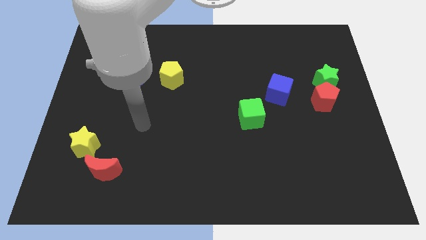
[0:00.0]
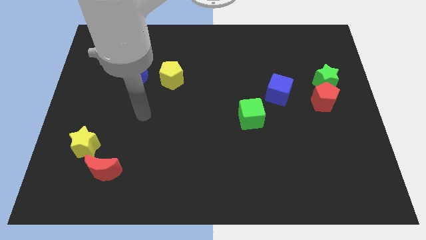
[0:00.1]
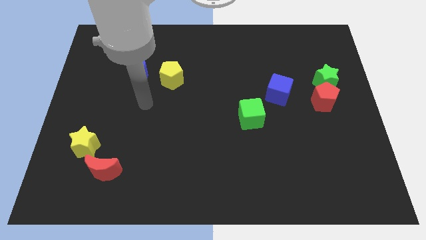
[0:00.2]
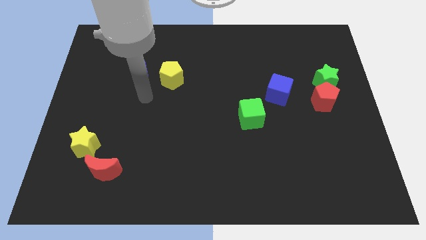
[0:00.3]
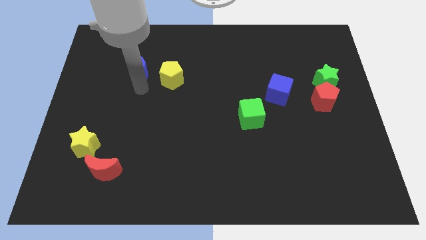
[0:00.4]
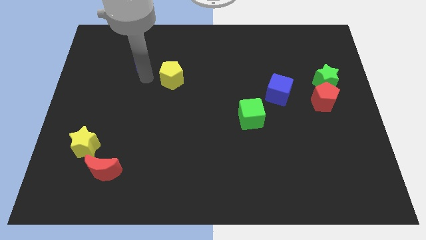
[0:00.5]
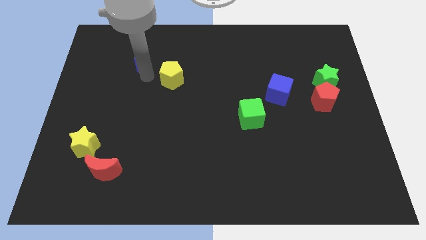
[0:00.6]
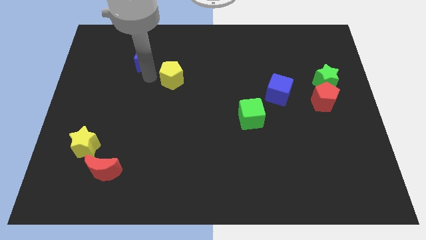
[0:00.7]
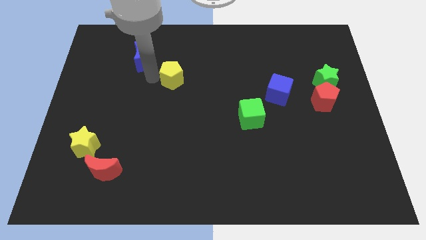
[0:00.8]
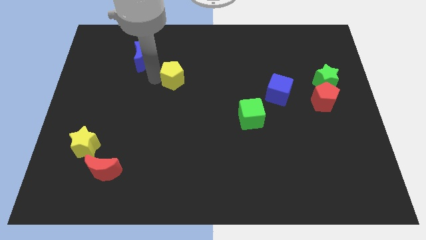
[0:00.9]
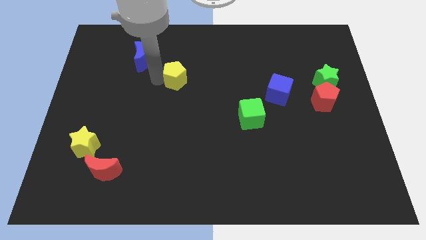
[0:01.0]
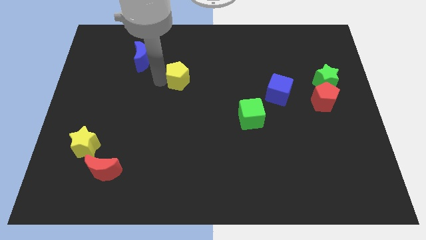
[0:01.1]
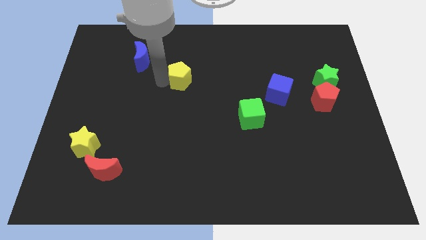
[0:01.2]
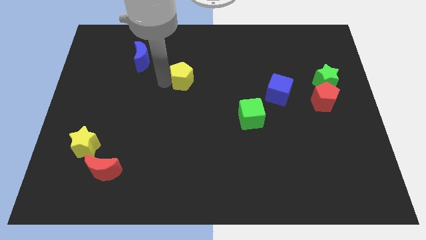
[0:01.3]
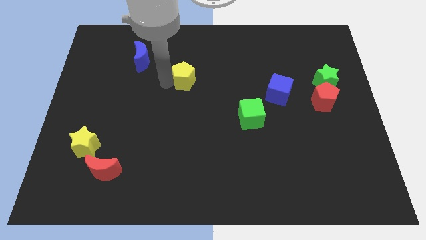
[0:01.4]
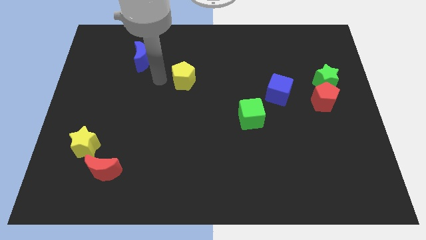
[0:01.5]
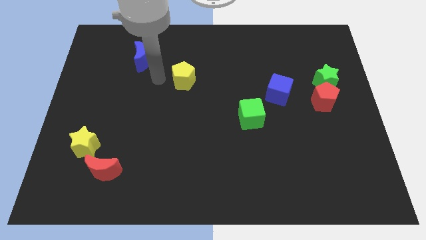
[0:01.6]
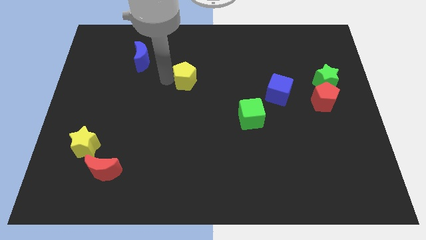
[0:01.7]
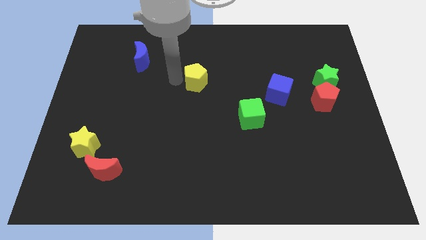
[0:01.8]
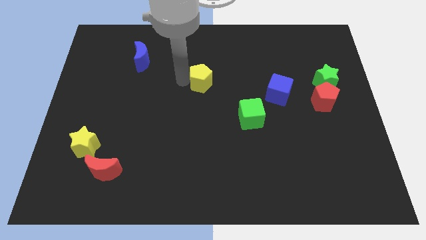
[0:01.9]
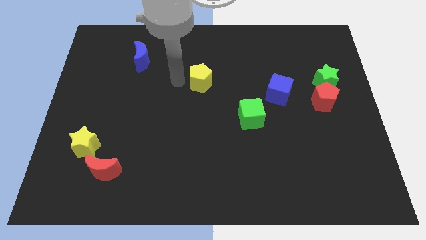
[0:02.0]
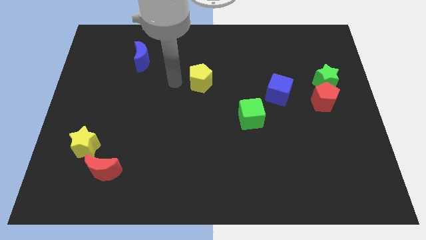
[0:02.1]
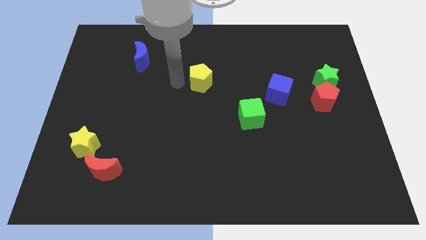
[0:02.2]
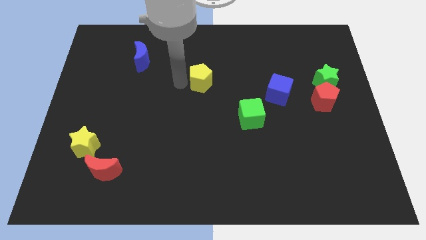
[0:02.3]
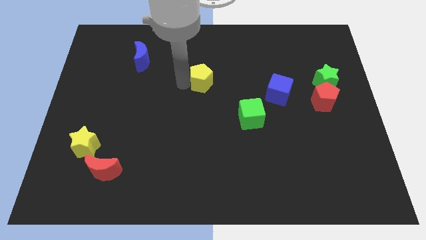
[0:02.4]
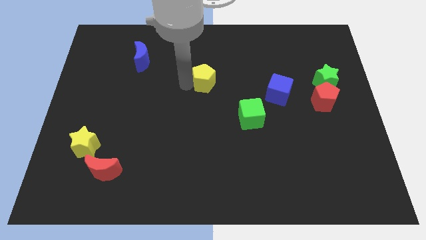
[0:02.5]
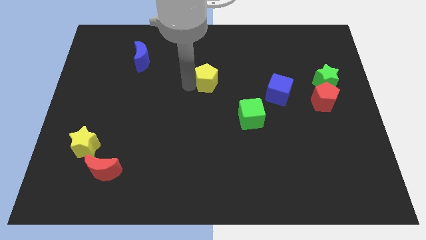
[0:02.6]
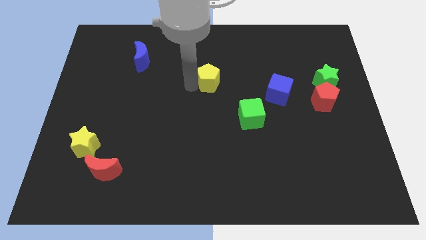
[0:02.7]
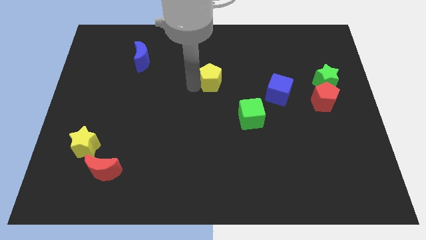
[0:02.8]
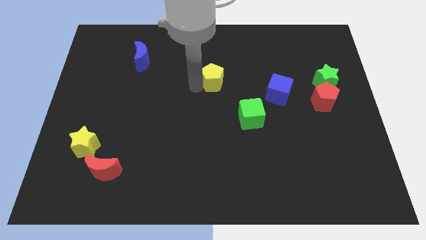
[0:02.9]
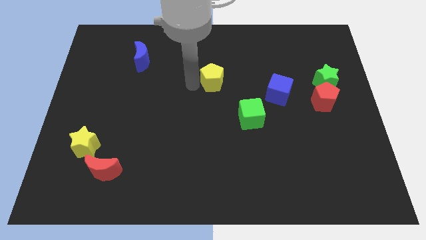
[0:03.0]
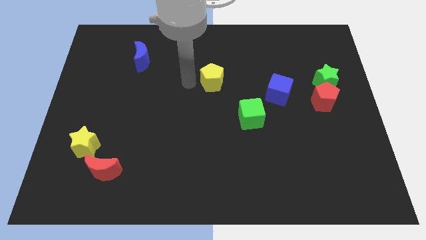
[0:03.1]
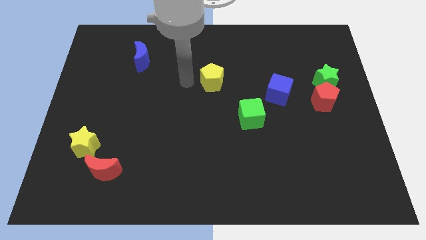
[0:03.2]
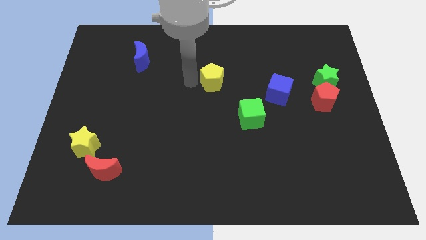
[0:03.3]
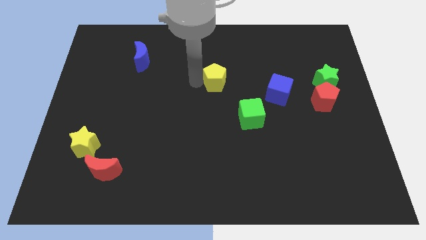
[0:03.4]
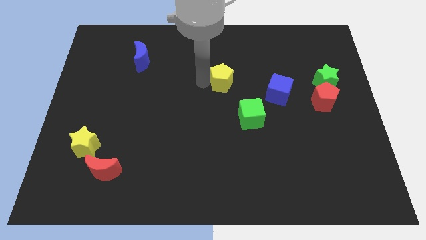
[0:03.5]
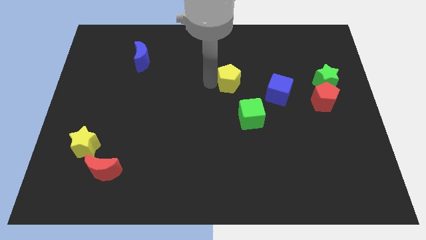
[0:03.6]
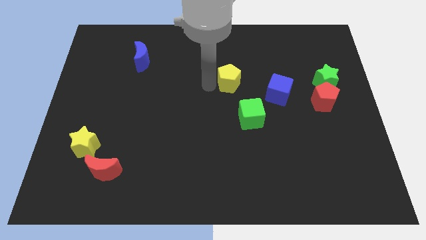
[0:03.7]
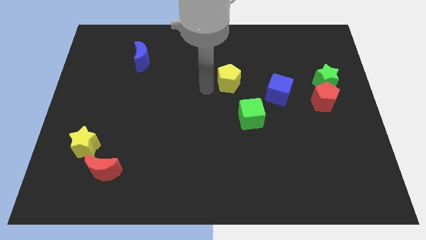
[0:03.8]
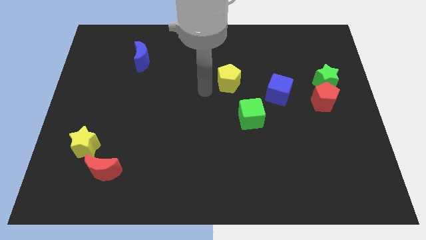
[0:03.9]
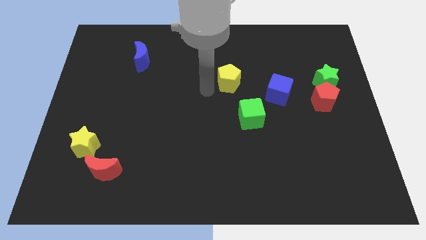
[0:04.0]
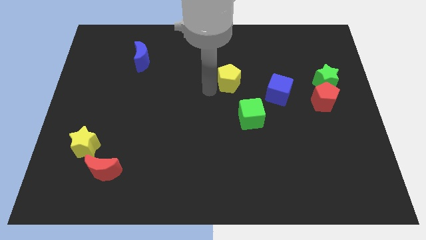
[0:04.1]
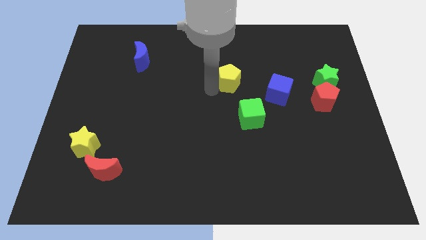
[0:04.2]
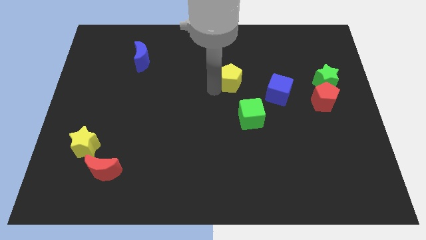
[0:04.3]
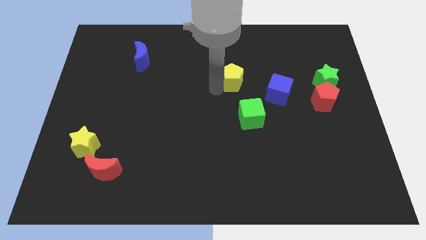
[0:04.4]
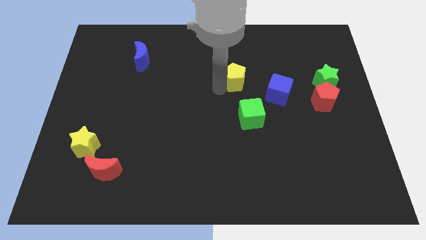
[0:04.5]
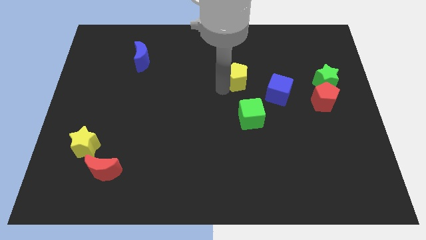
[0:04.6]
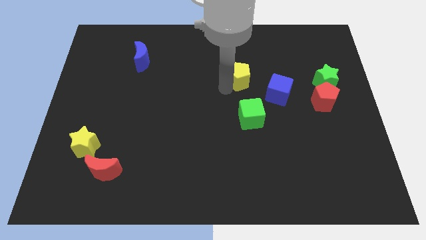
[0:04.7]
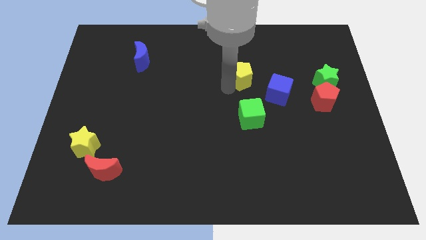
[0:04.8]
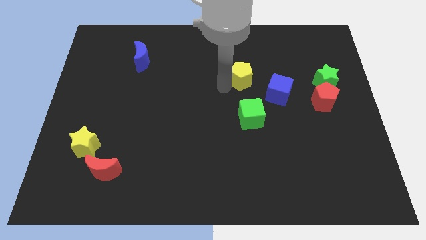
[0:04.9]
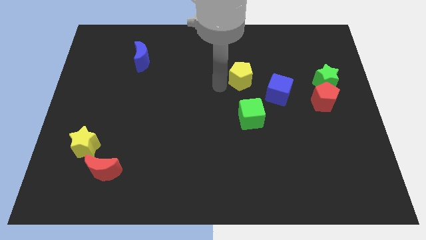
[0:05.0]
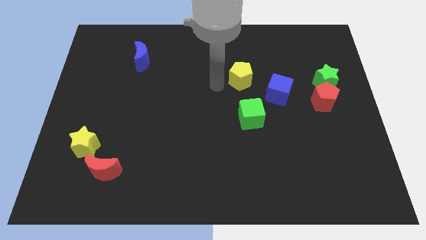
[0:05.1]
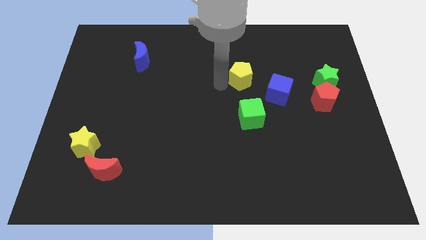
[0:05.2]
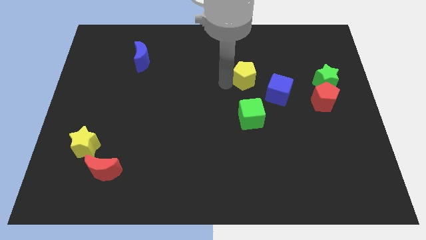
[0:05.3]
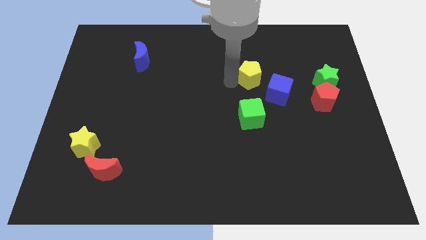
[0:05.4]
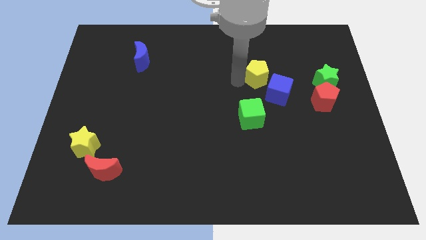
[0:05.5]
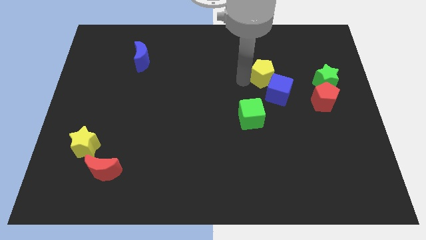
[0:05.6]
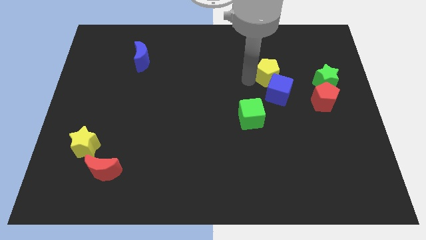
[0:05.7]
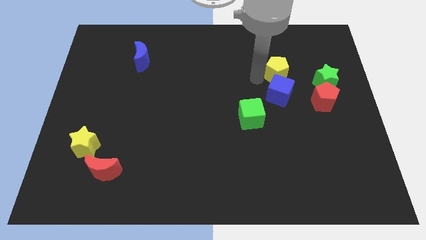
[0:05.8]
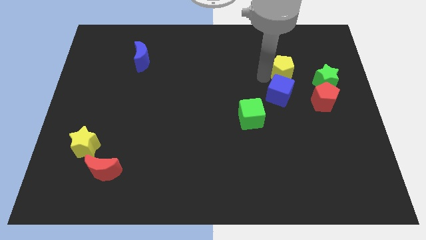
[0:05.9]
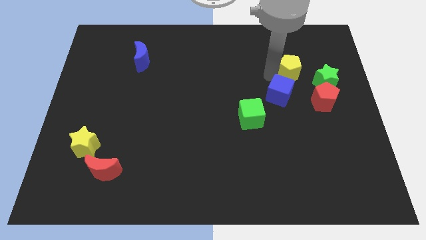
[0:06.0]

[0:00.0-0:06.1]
move the yellow pentagon to the top left side of the green star

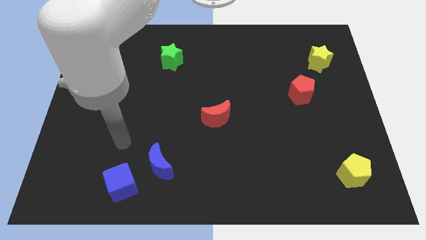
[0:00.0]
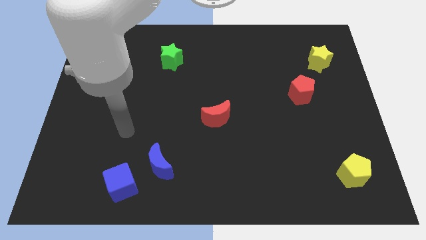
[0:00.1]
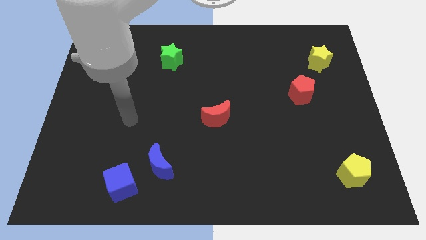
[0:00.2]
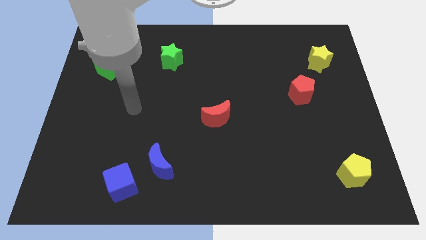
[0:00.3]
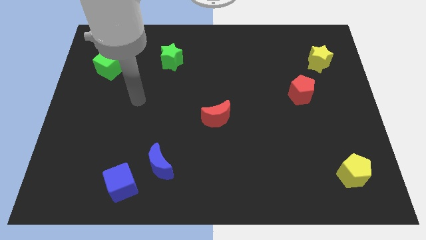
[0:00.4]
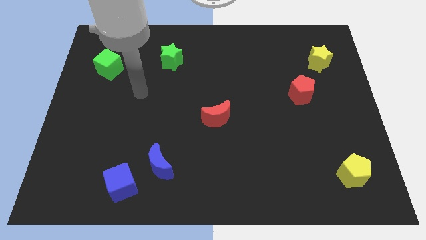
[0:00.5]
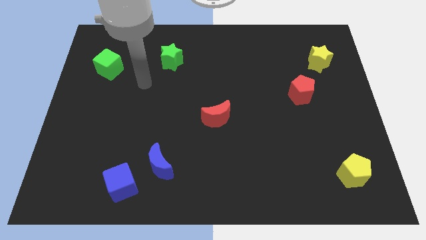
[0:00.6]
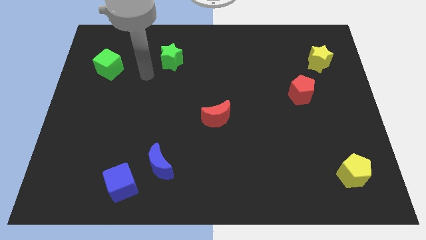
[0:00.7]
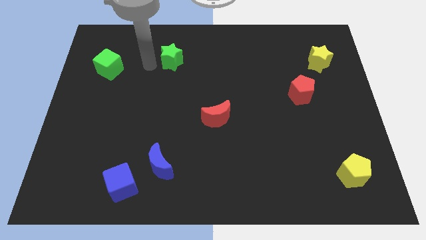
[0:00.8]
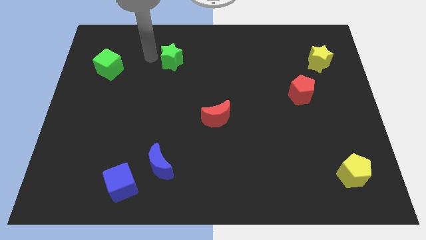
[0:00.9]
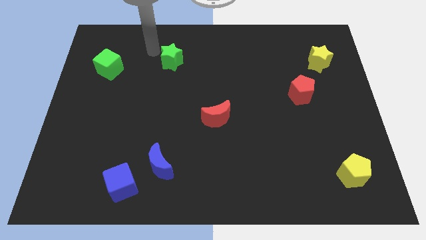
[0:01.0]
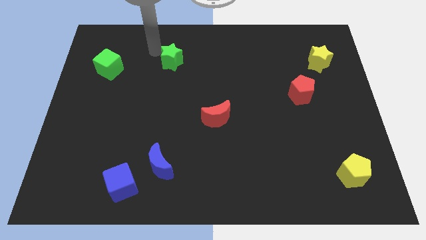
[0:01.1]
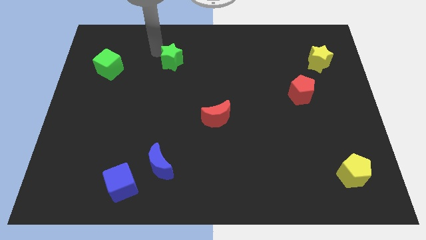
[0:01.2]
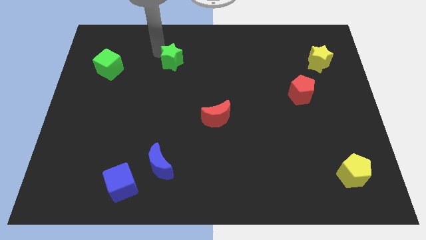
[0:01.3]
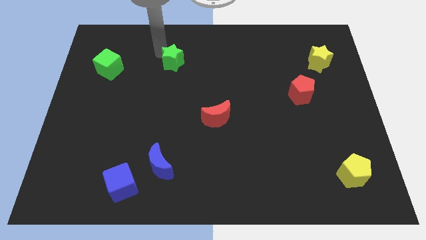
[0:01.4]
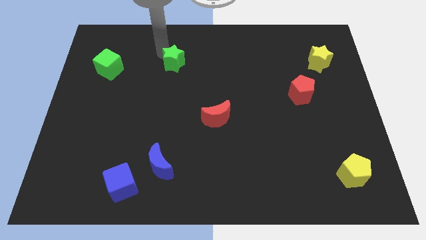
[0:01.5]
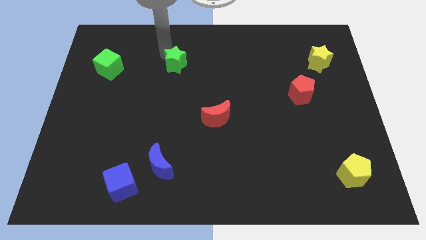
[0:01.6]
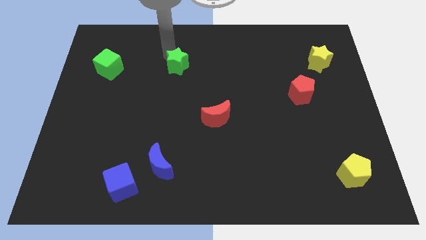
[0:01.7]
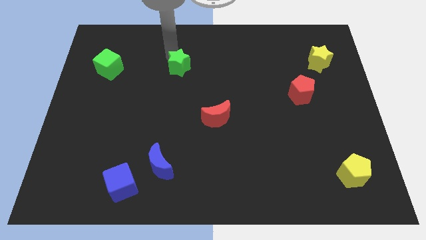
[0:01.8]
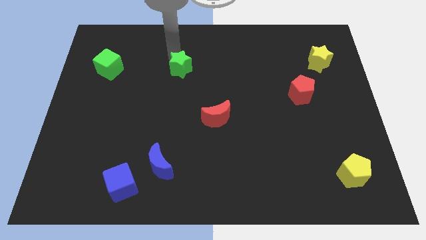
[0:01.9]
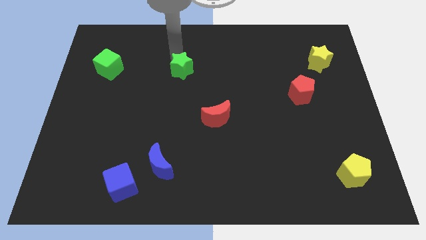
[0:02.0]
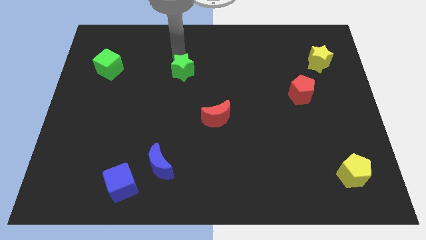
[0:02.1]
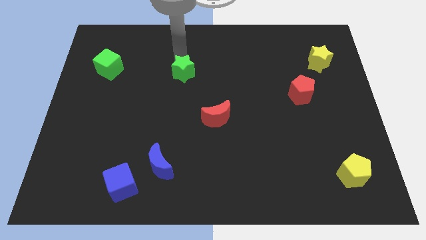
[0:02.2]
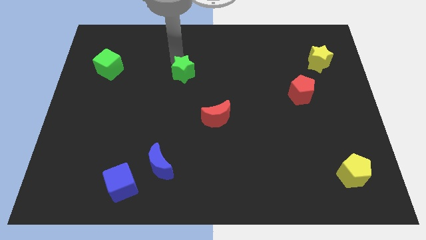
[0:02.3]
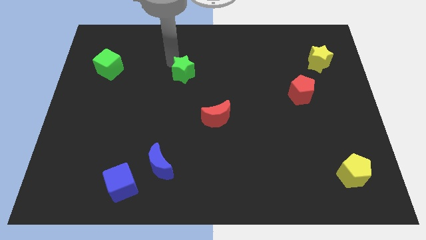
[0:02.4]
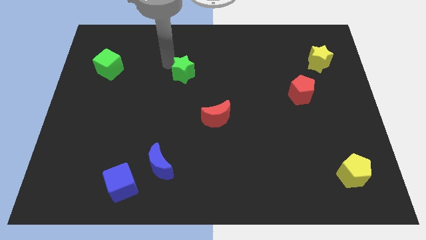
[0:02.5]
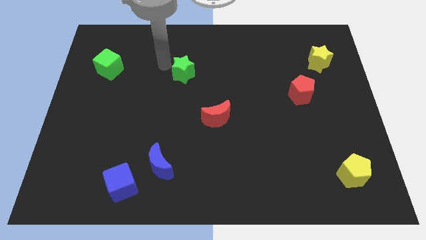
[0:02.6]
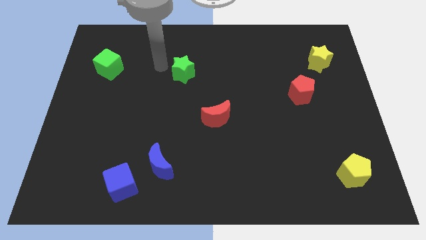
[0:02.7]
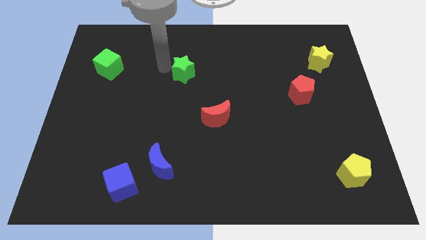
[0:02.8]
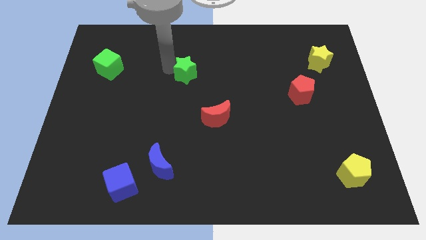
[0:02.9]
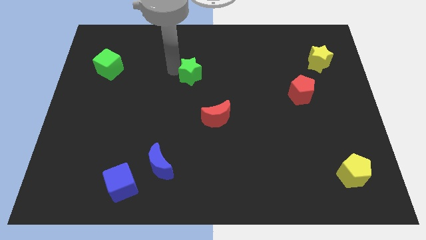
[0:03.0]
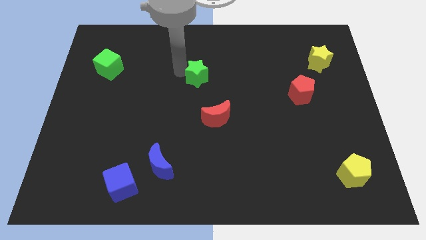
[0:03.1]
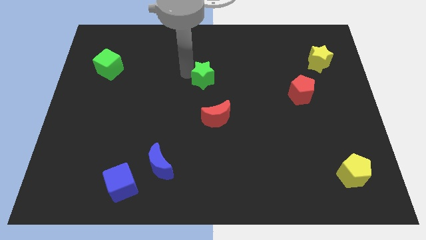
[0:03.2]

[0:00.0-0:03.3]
put the green star to the top side of the red moon
